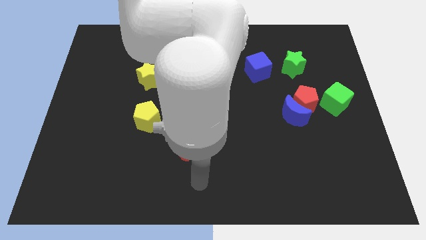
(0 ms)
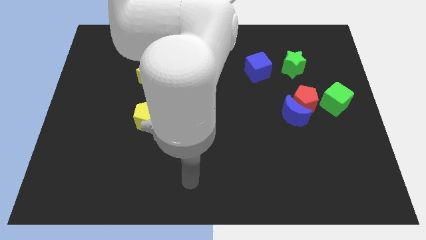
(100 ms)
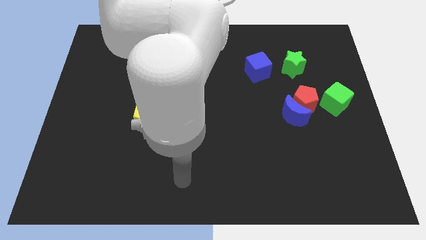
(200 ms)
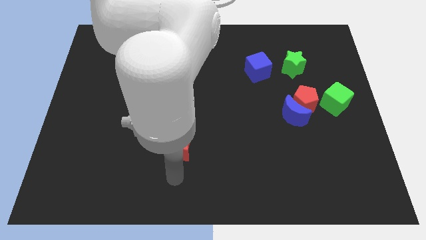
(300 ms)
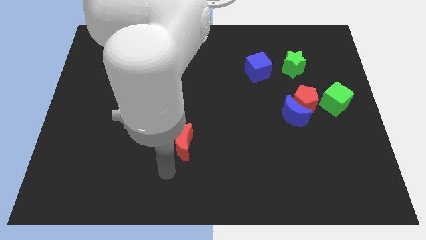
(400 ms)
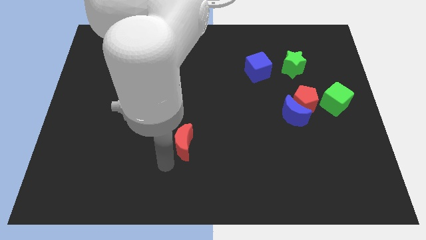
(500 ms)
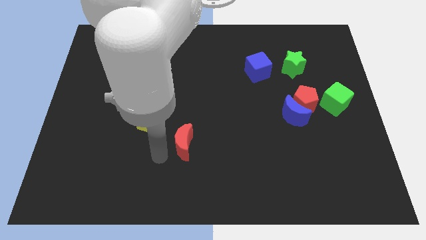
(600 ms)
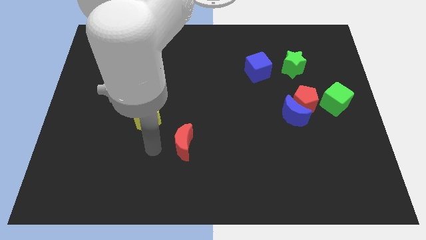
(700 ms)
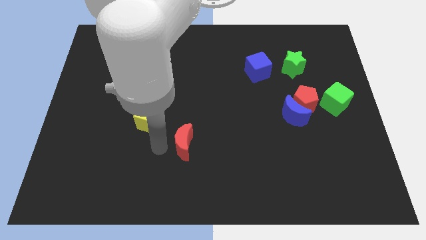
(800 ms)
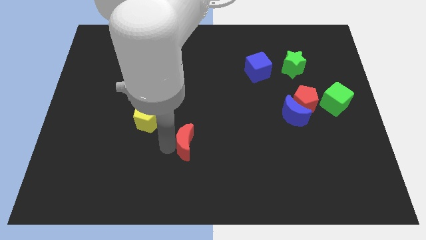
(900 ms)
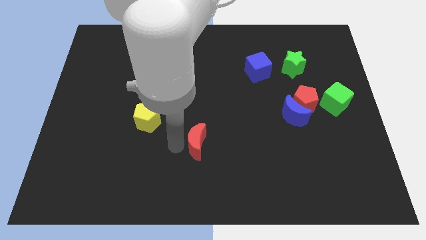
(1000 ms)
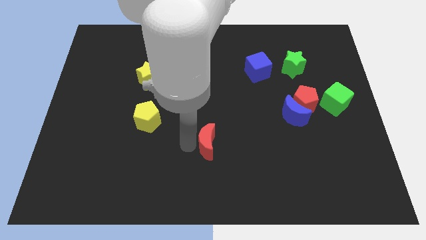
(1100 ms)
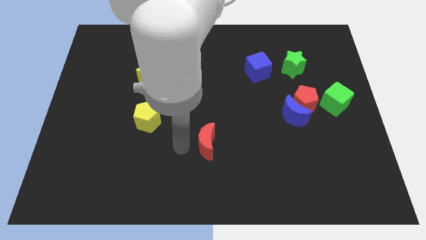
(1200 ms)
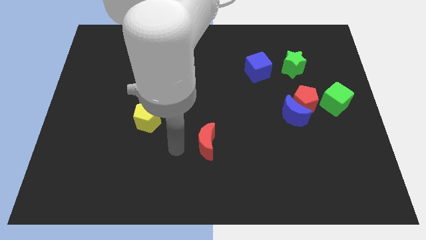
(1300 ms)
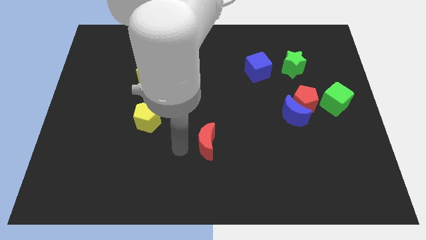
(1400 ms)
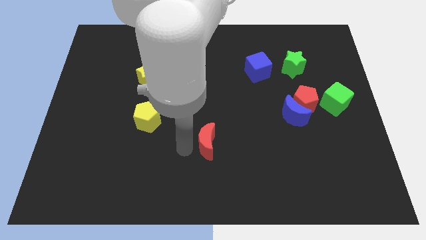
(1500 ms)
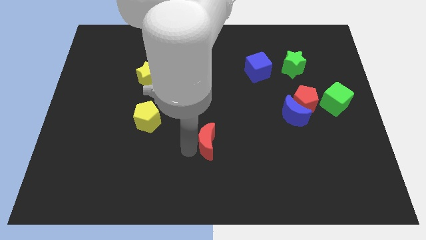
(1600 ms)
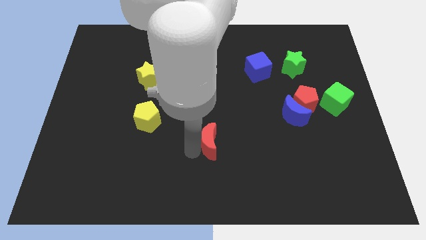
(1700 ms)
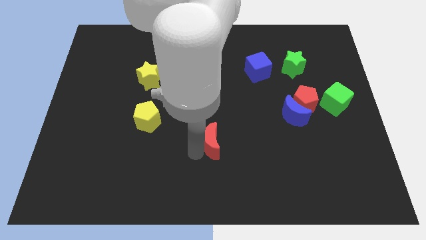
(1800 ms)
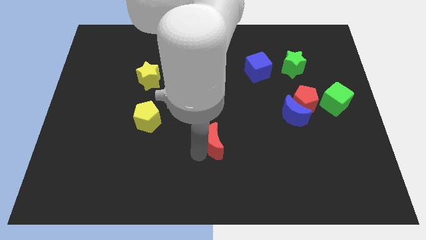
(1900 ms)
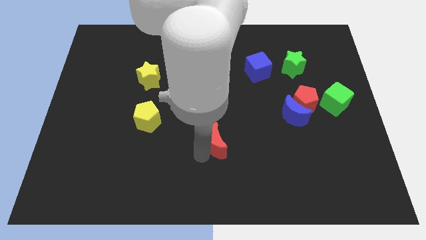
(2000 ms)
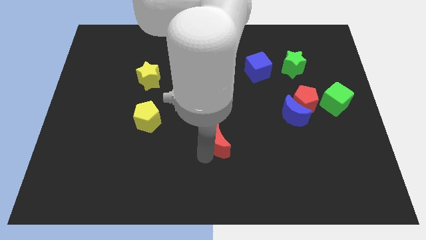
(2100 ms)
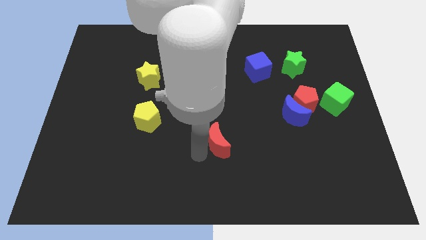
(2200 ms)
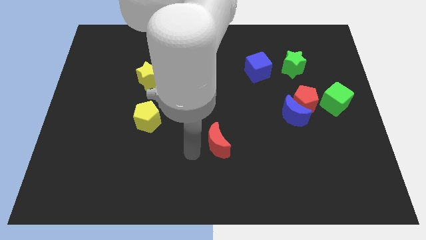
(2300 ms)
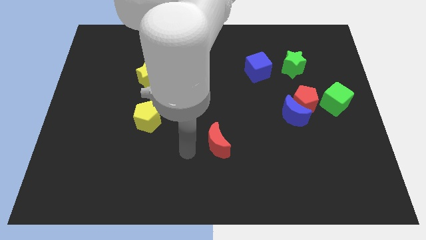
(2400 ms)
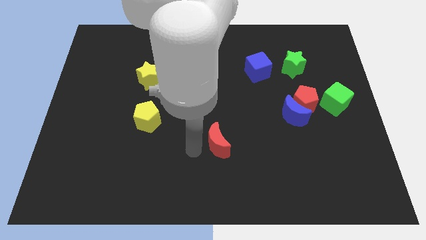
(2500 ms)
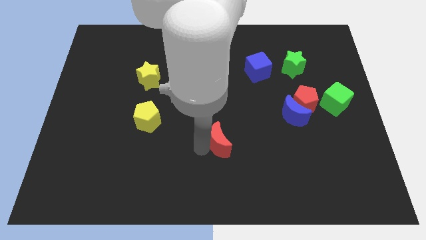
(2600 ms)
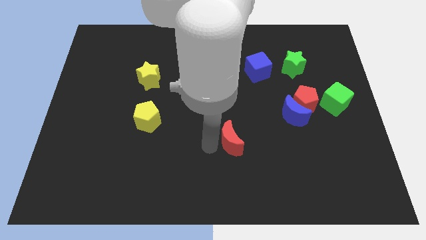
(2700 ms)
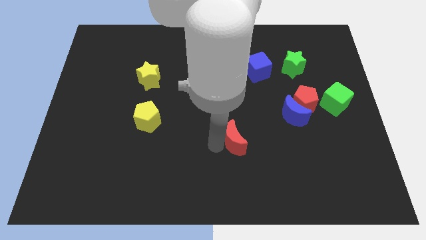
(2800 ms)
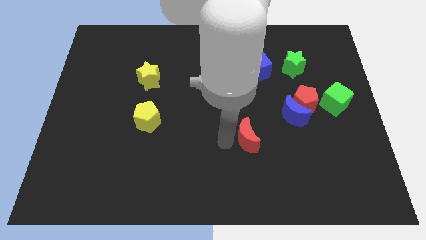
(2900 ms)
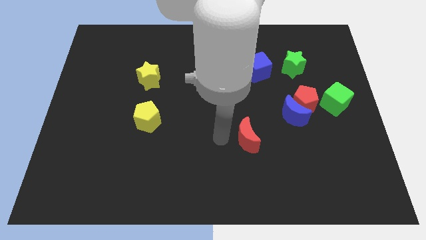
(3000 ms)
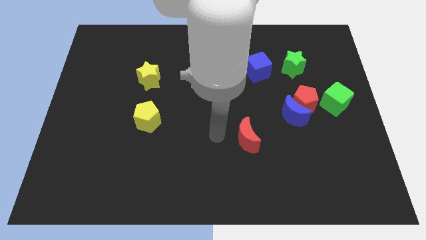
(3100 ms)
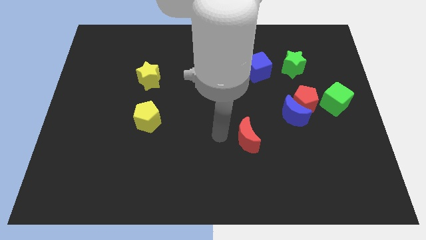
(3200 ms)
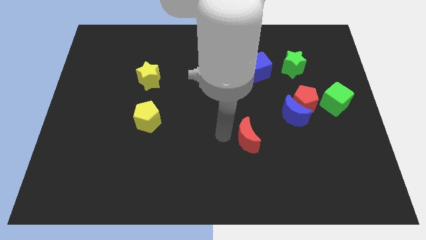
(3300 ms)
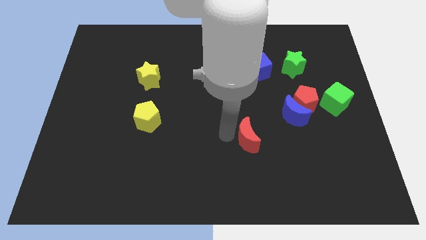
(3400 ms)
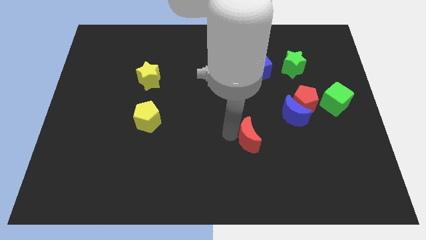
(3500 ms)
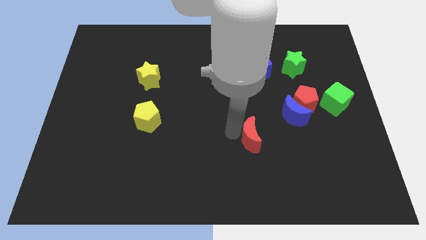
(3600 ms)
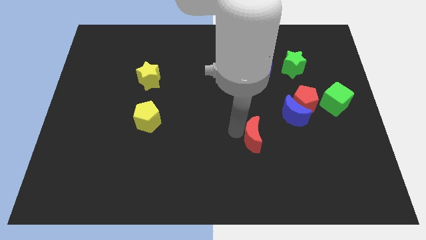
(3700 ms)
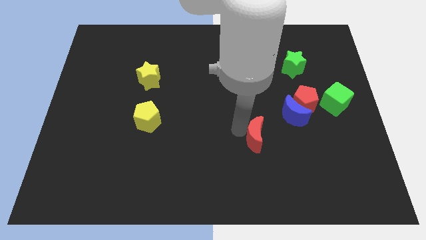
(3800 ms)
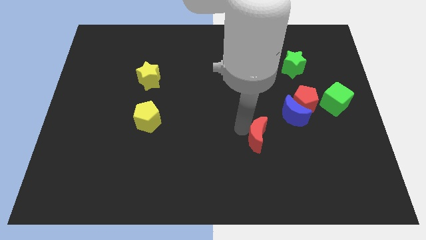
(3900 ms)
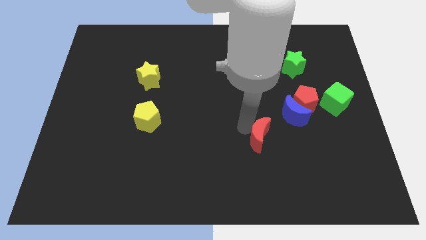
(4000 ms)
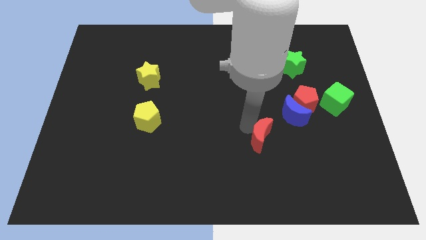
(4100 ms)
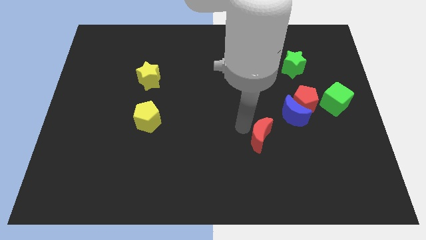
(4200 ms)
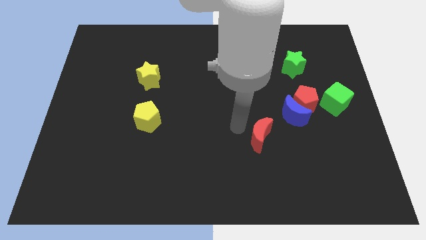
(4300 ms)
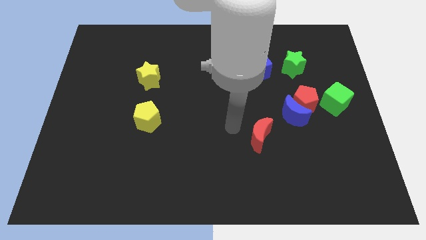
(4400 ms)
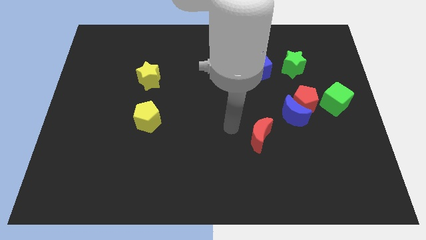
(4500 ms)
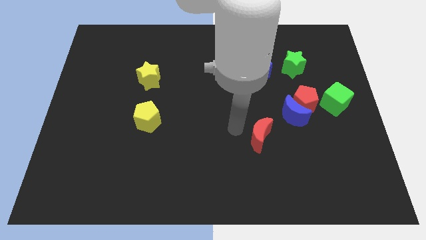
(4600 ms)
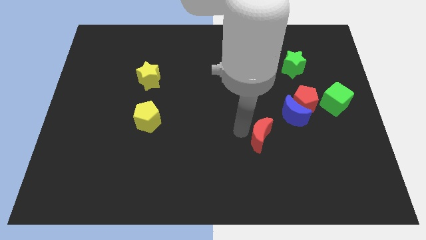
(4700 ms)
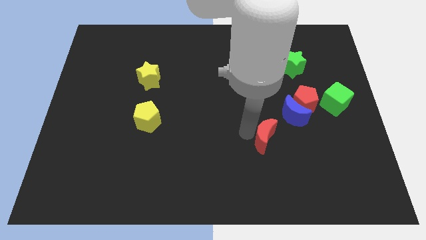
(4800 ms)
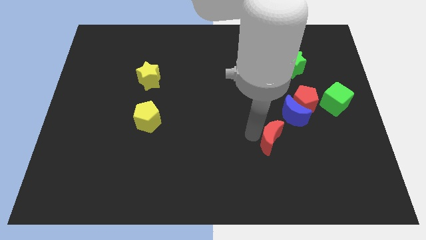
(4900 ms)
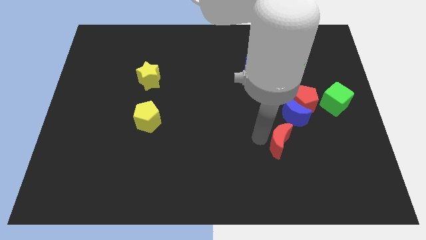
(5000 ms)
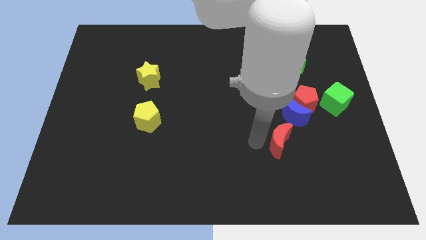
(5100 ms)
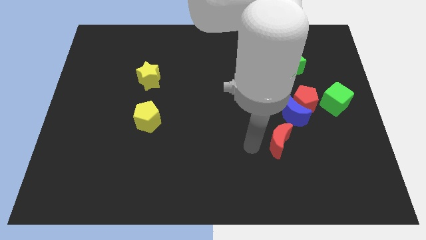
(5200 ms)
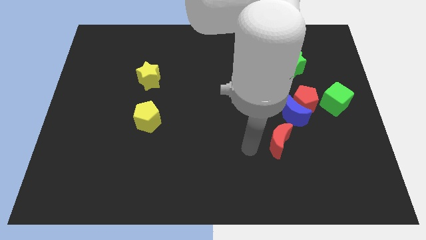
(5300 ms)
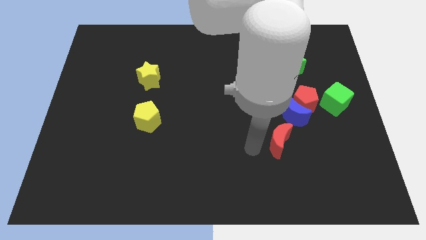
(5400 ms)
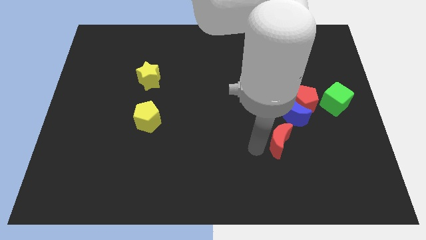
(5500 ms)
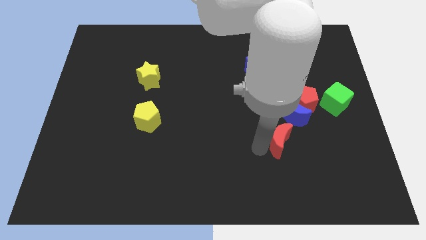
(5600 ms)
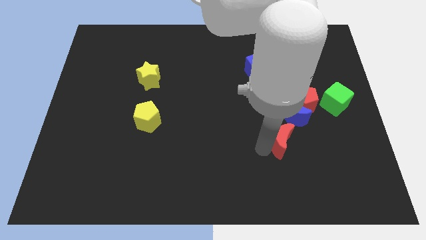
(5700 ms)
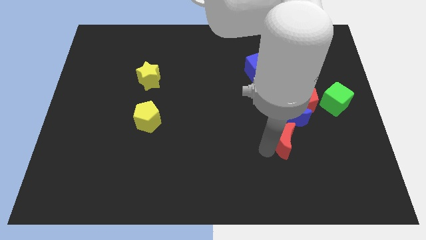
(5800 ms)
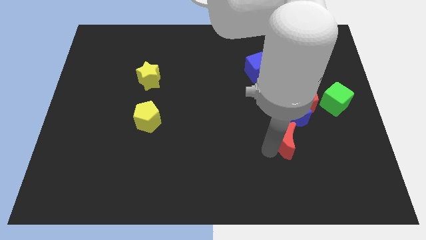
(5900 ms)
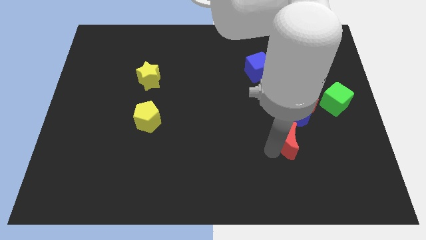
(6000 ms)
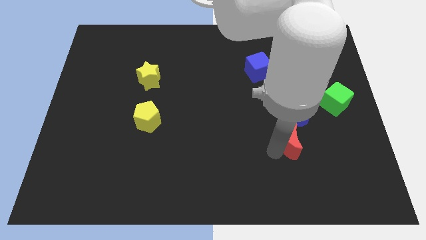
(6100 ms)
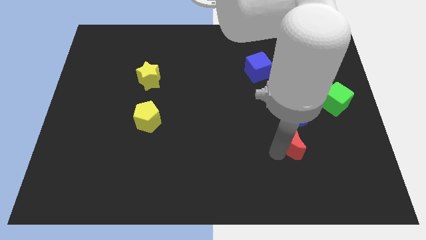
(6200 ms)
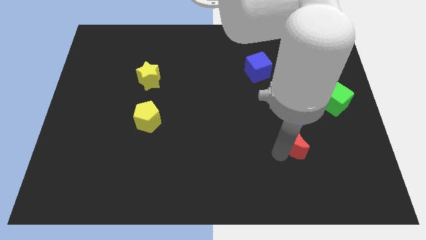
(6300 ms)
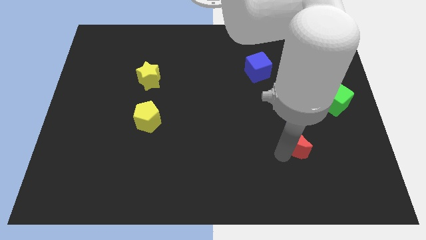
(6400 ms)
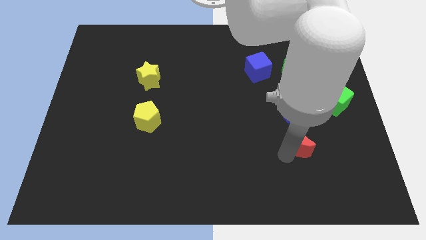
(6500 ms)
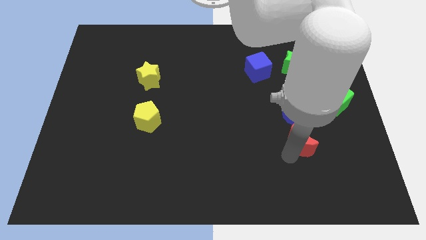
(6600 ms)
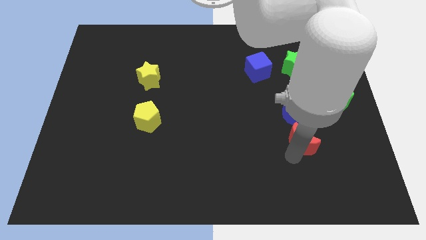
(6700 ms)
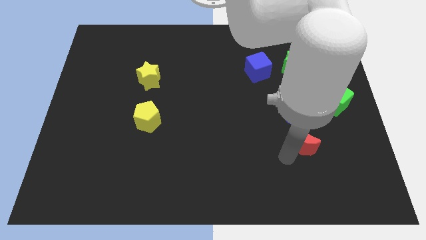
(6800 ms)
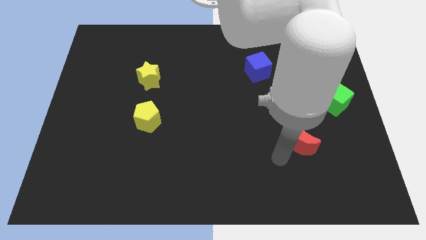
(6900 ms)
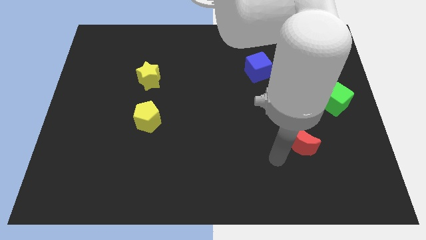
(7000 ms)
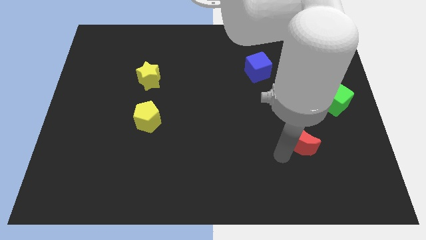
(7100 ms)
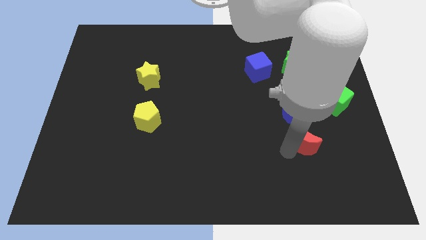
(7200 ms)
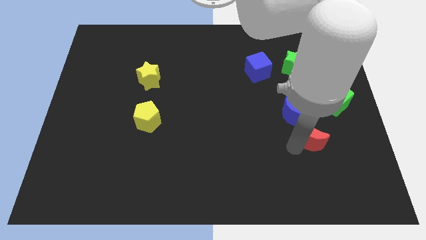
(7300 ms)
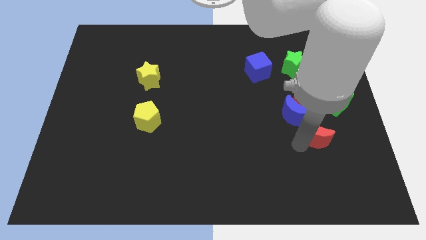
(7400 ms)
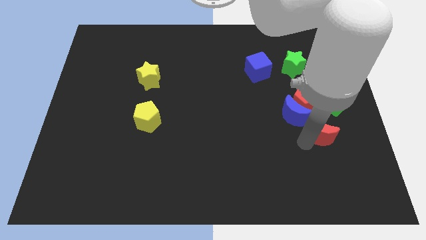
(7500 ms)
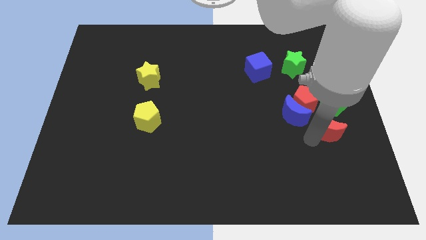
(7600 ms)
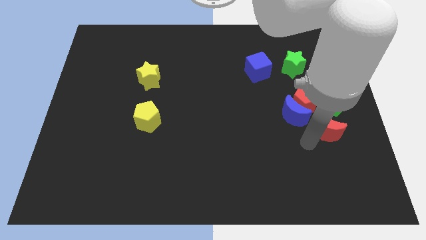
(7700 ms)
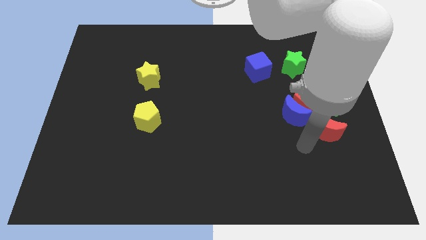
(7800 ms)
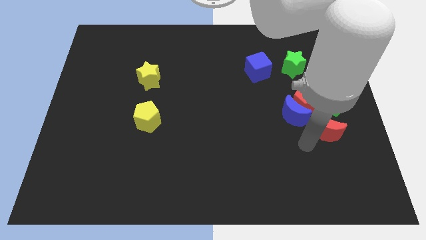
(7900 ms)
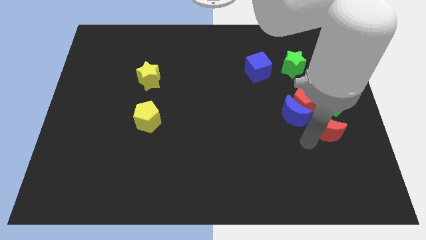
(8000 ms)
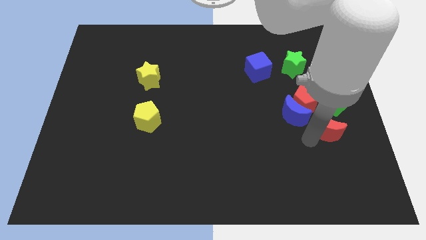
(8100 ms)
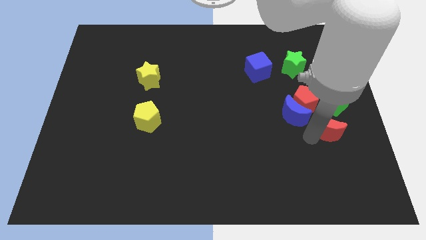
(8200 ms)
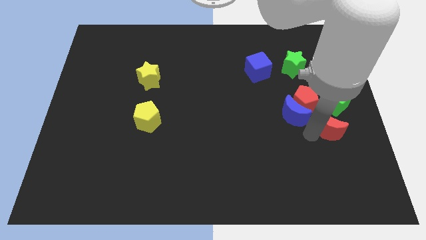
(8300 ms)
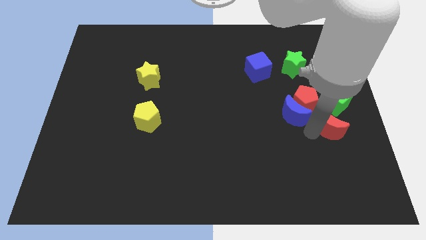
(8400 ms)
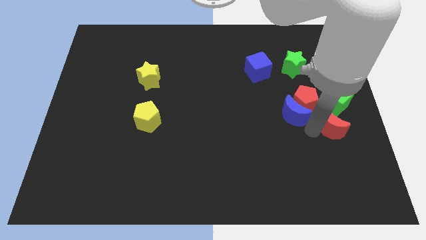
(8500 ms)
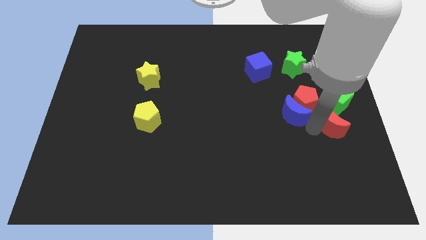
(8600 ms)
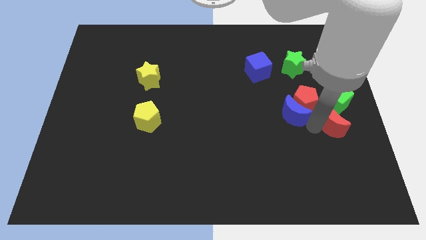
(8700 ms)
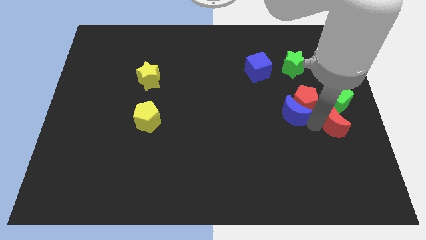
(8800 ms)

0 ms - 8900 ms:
move the red moon to the right side of the board
